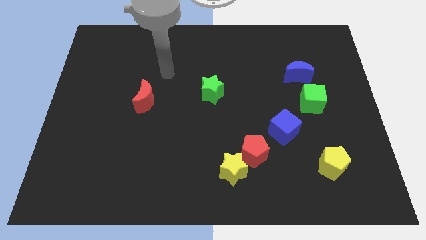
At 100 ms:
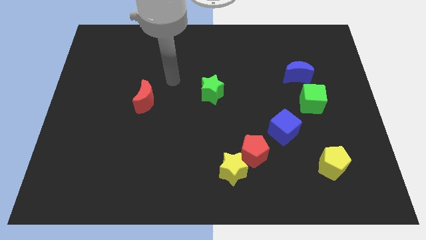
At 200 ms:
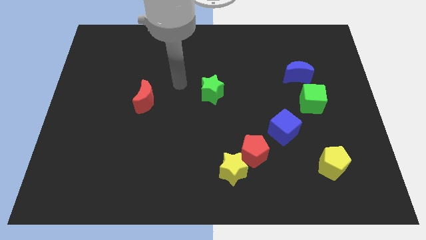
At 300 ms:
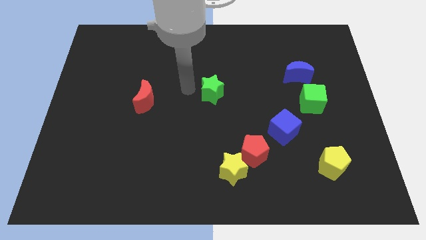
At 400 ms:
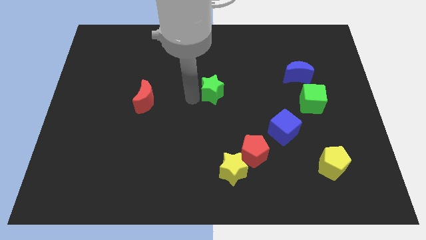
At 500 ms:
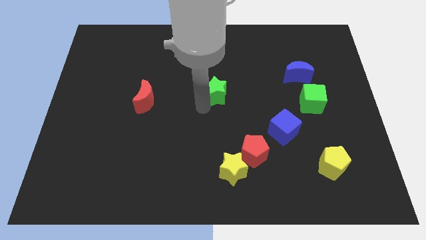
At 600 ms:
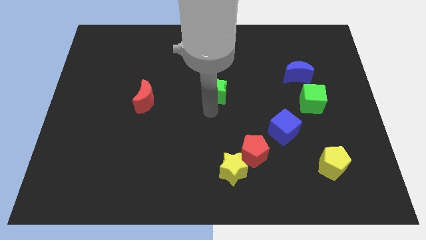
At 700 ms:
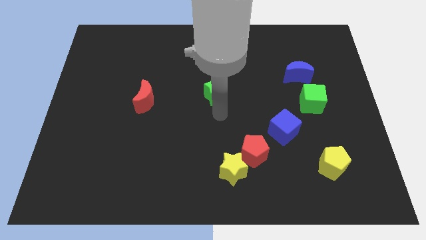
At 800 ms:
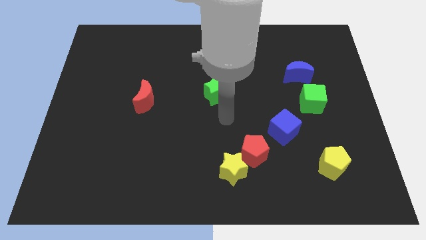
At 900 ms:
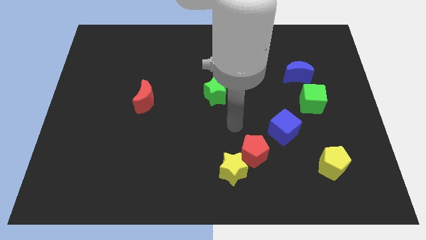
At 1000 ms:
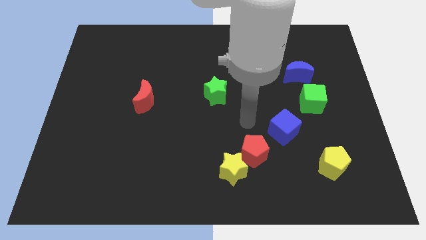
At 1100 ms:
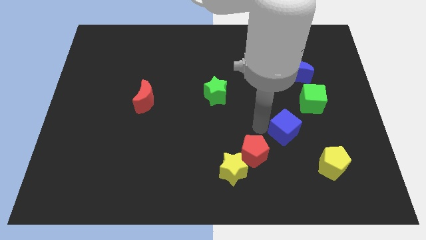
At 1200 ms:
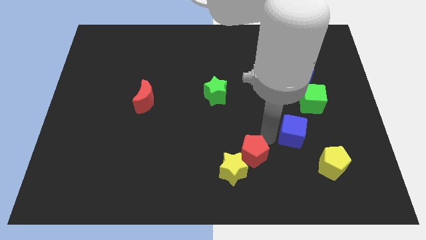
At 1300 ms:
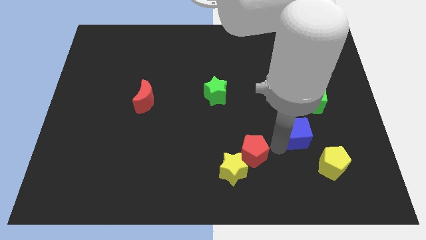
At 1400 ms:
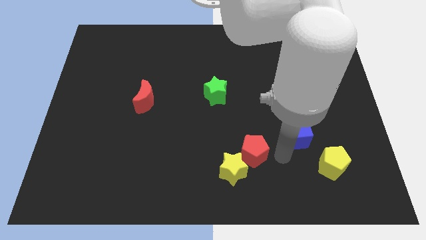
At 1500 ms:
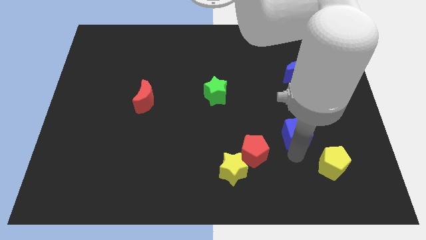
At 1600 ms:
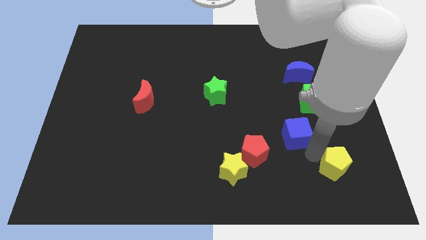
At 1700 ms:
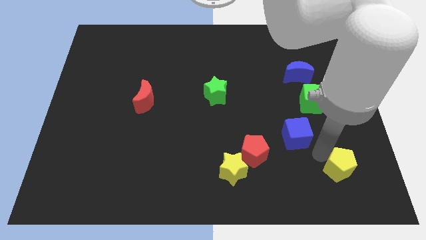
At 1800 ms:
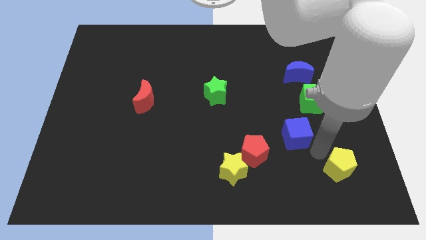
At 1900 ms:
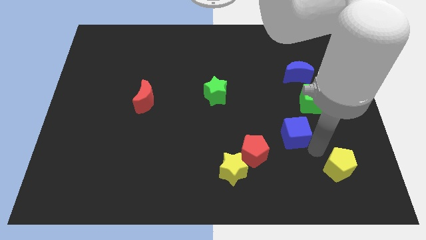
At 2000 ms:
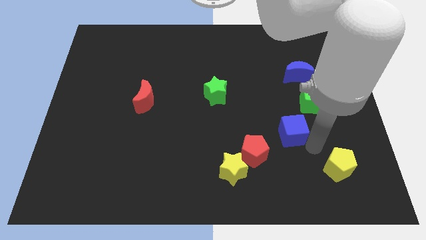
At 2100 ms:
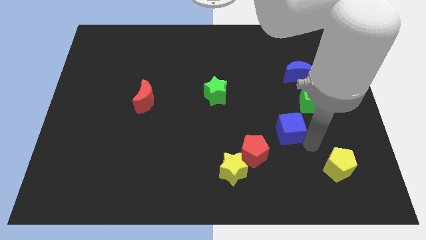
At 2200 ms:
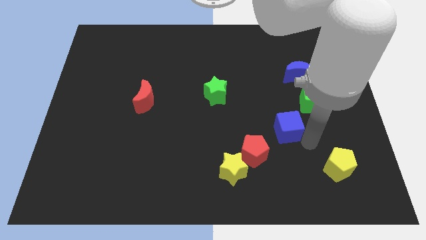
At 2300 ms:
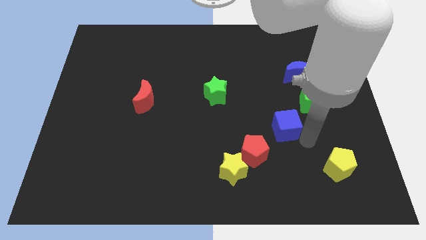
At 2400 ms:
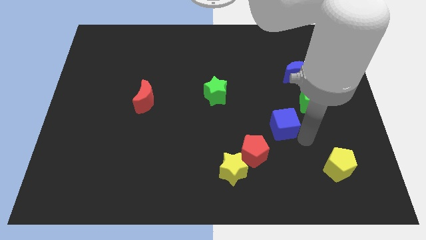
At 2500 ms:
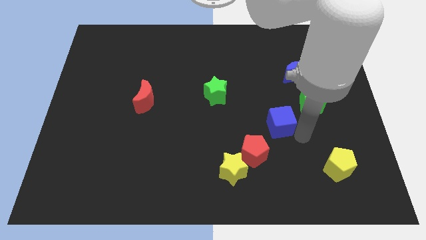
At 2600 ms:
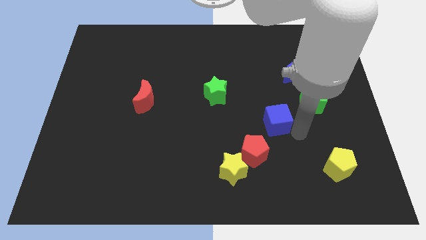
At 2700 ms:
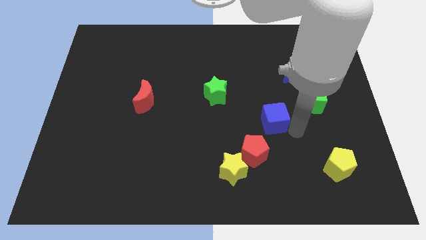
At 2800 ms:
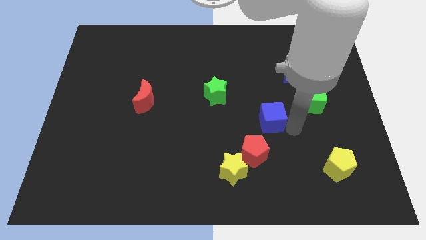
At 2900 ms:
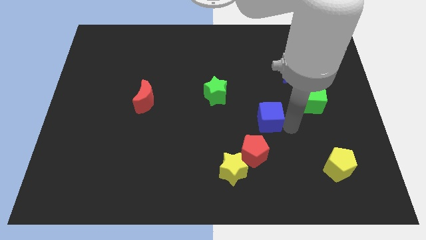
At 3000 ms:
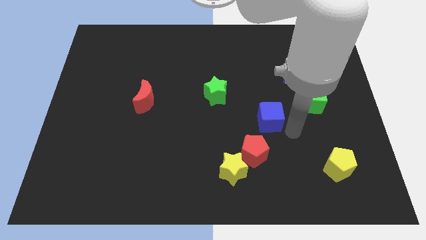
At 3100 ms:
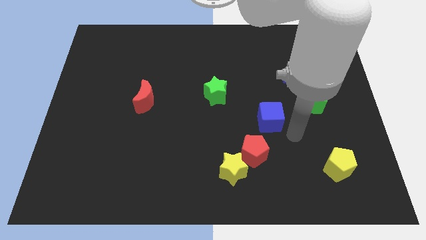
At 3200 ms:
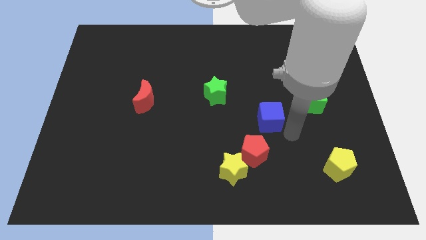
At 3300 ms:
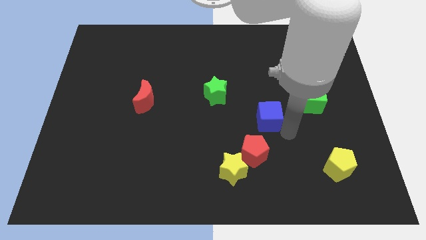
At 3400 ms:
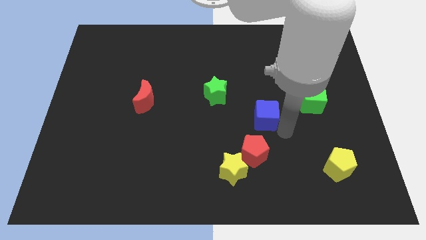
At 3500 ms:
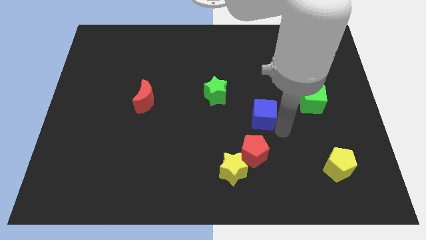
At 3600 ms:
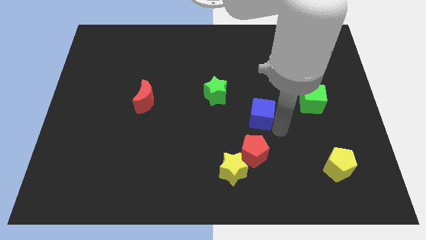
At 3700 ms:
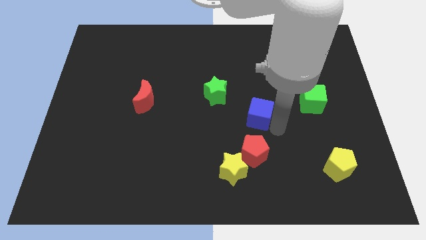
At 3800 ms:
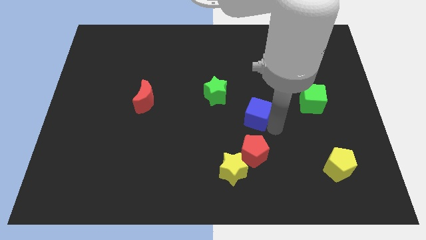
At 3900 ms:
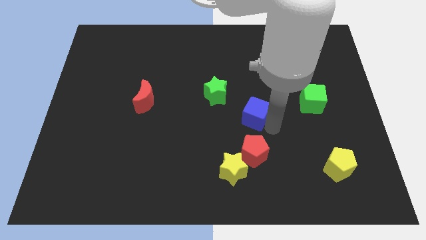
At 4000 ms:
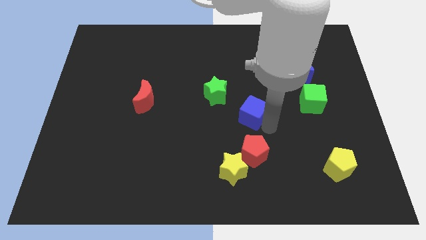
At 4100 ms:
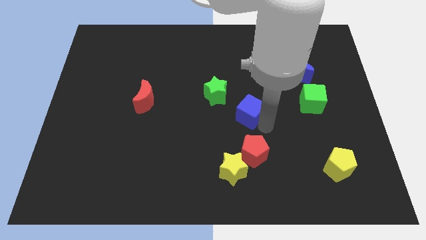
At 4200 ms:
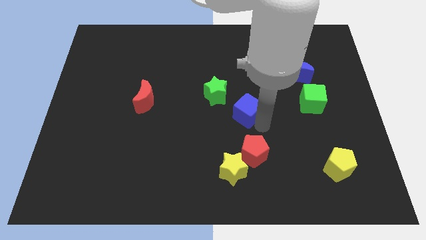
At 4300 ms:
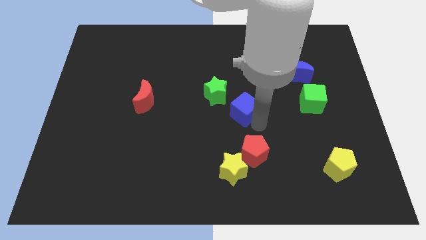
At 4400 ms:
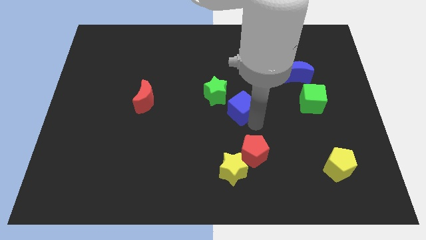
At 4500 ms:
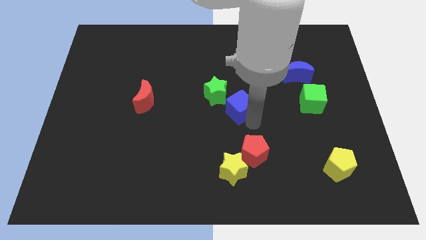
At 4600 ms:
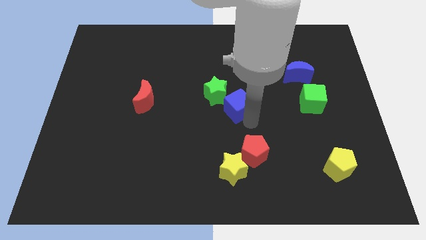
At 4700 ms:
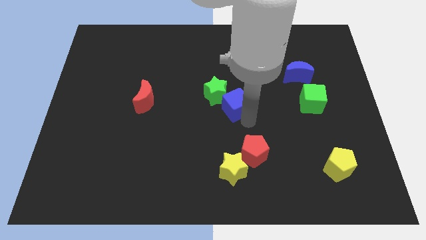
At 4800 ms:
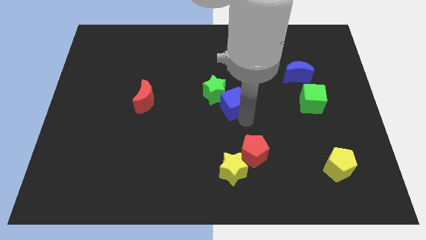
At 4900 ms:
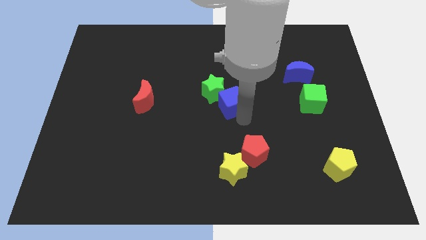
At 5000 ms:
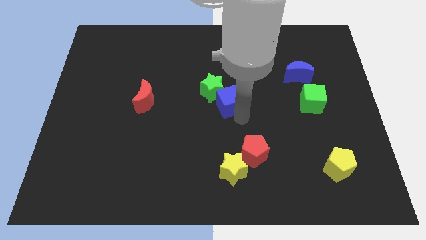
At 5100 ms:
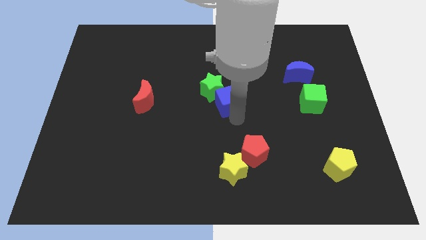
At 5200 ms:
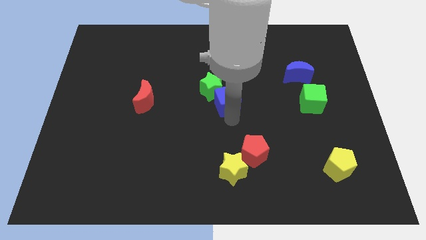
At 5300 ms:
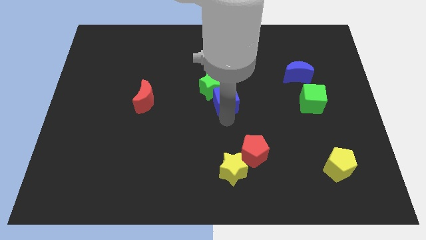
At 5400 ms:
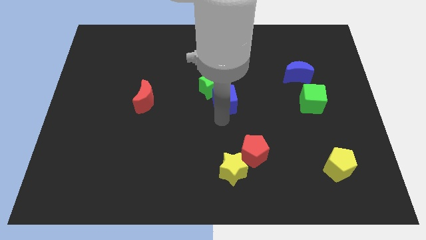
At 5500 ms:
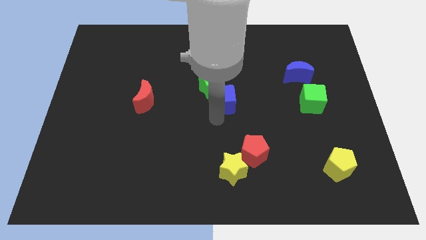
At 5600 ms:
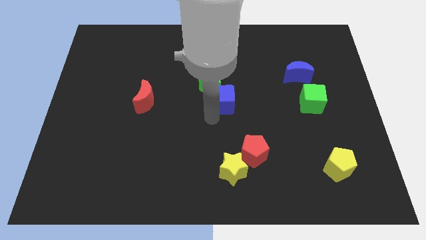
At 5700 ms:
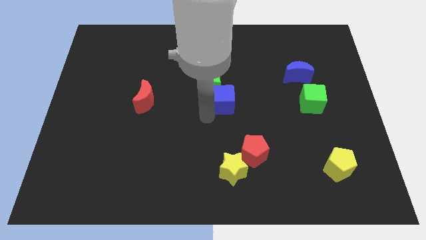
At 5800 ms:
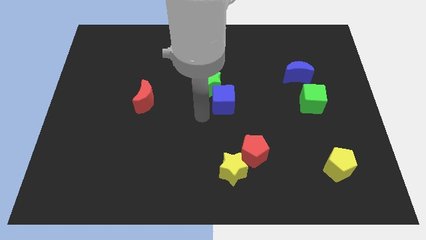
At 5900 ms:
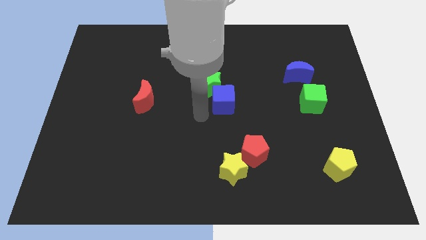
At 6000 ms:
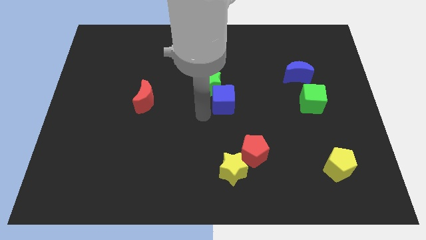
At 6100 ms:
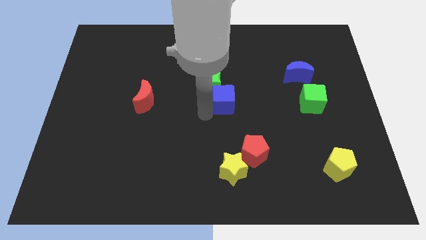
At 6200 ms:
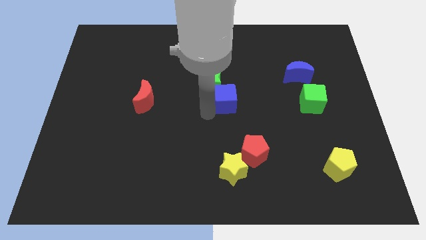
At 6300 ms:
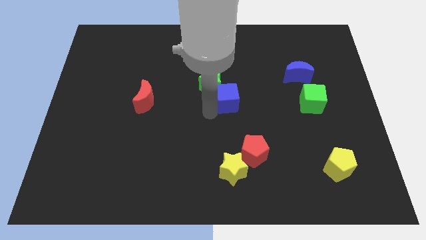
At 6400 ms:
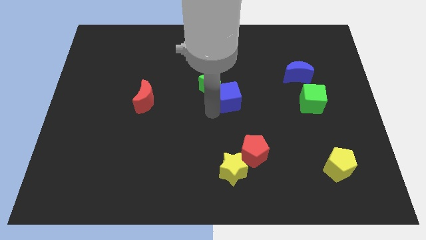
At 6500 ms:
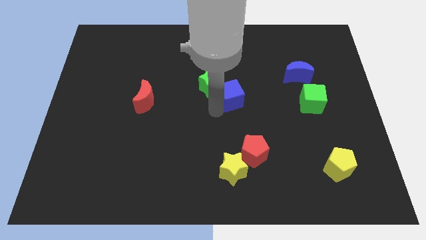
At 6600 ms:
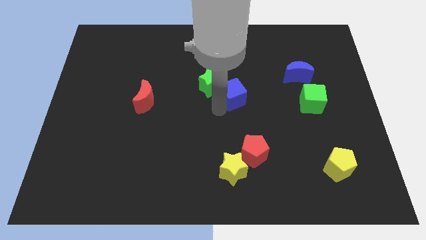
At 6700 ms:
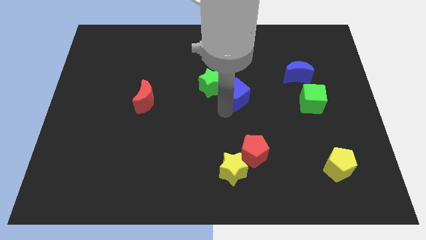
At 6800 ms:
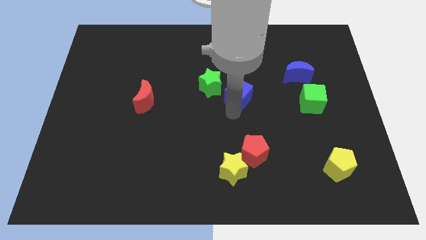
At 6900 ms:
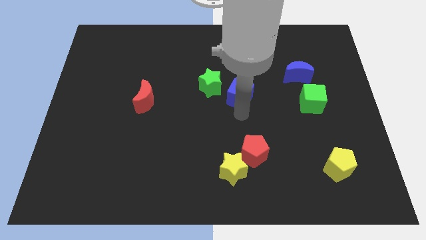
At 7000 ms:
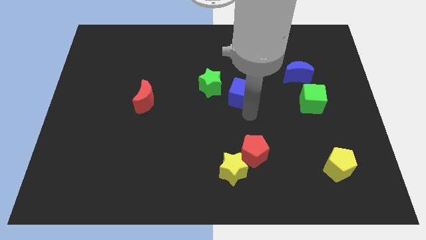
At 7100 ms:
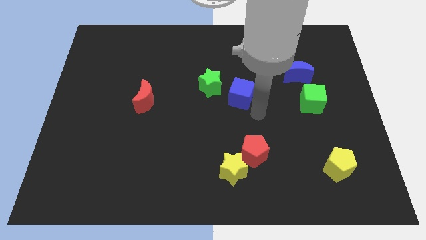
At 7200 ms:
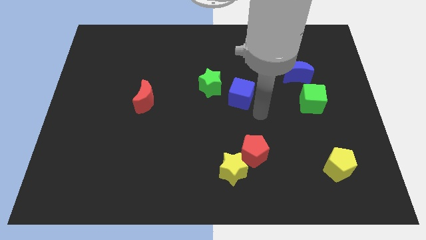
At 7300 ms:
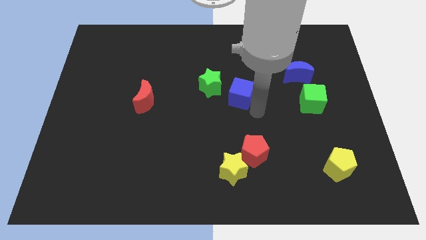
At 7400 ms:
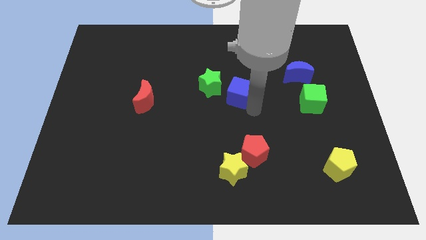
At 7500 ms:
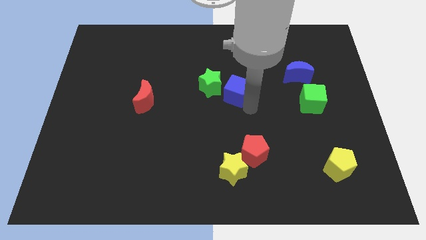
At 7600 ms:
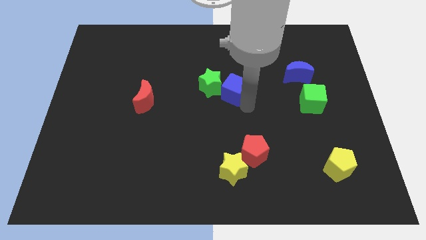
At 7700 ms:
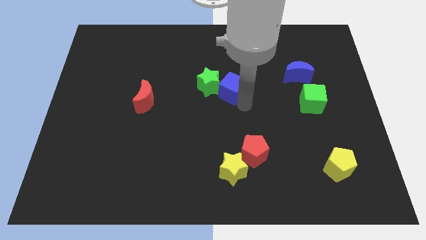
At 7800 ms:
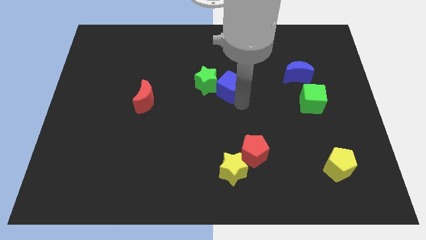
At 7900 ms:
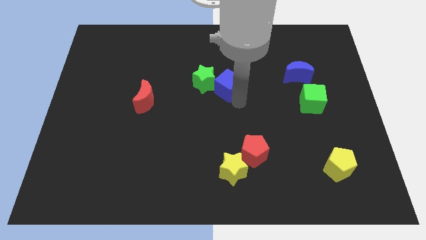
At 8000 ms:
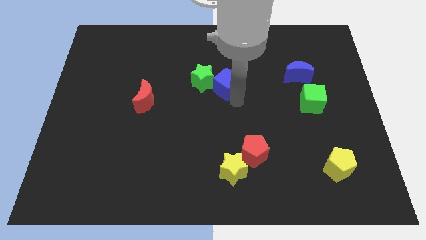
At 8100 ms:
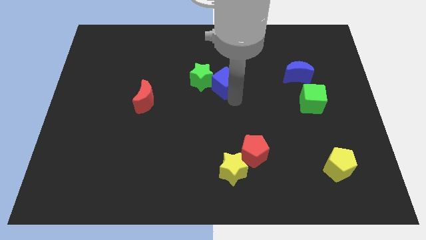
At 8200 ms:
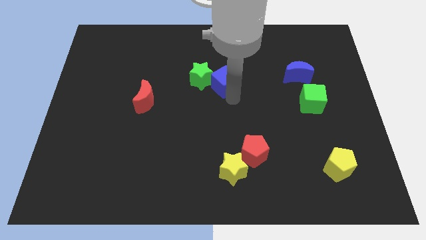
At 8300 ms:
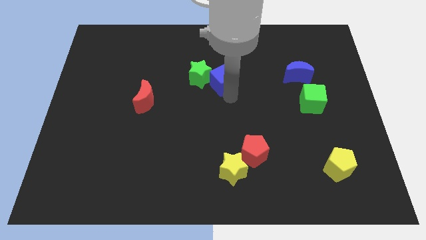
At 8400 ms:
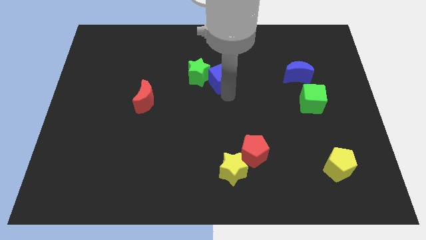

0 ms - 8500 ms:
slide the blue cube diagonally up and left
